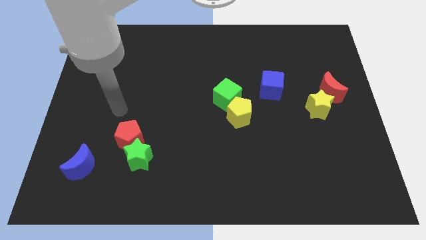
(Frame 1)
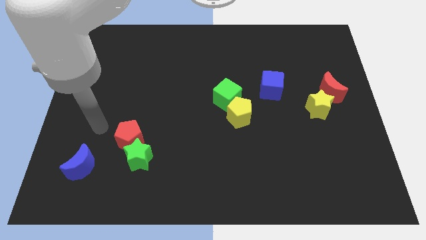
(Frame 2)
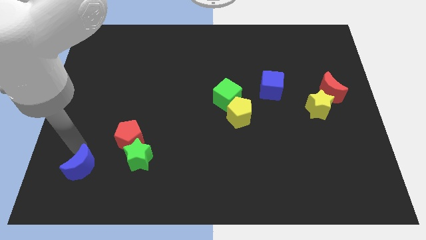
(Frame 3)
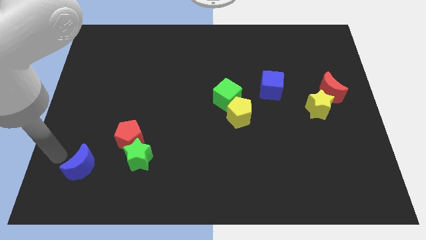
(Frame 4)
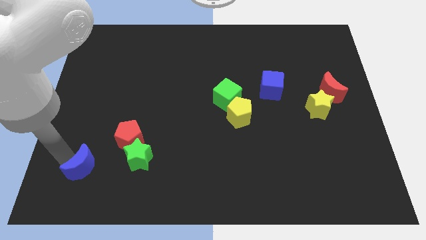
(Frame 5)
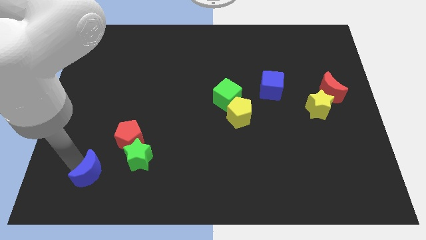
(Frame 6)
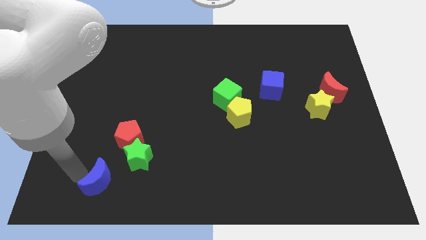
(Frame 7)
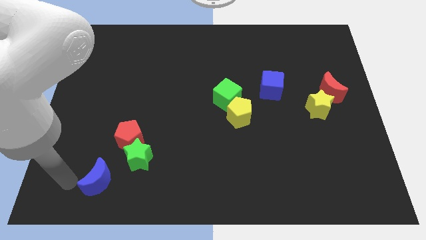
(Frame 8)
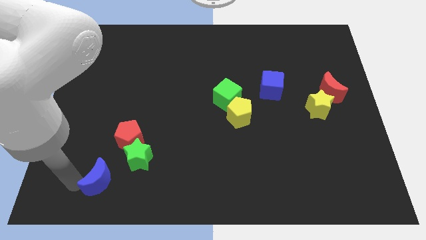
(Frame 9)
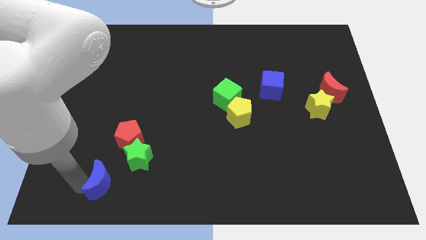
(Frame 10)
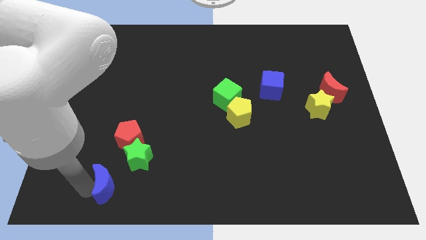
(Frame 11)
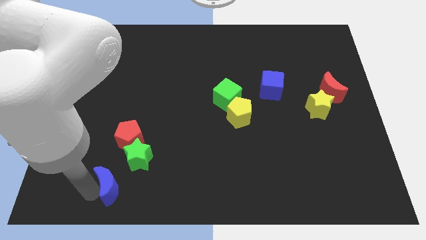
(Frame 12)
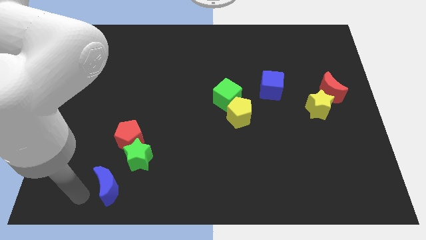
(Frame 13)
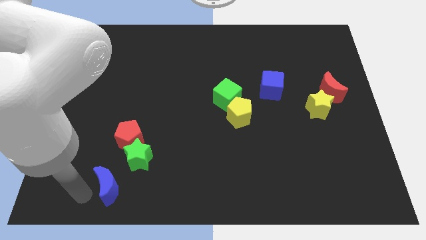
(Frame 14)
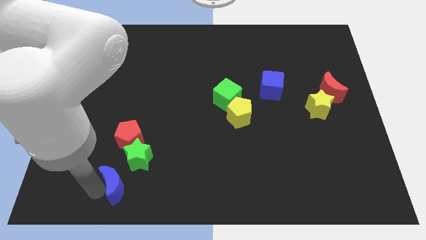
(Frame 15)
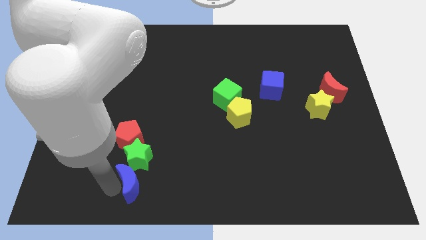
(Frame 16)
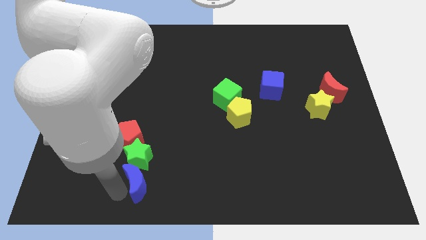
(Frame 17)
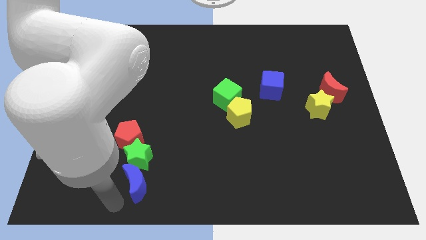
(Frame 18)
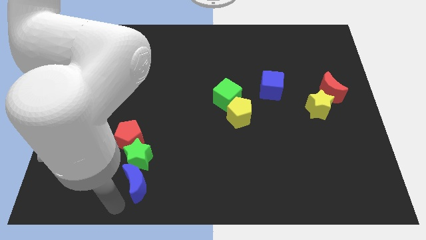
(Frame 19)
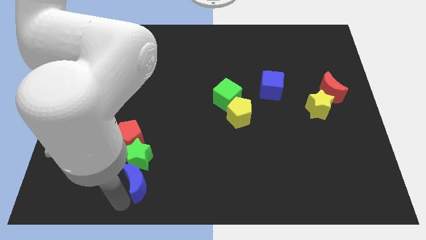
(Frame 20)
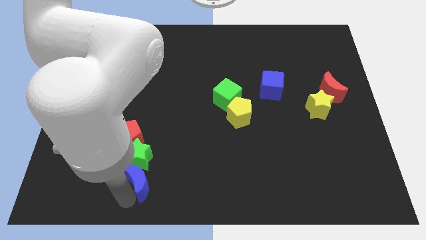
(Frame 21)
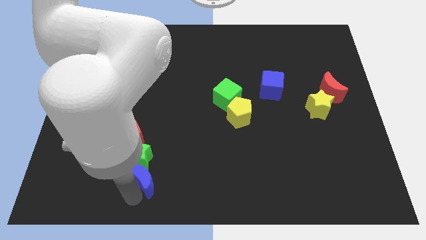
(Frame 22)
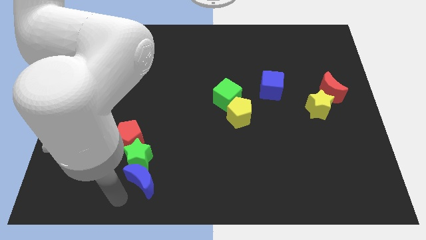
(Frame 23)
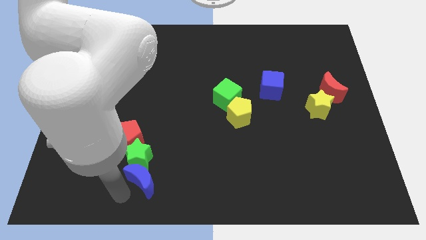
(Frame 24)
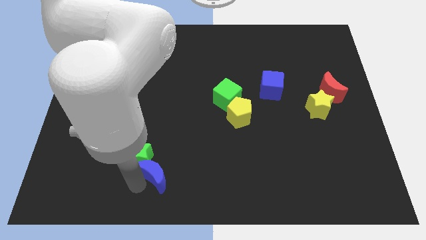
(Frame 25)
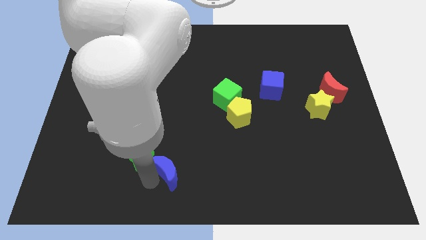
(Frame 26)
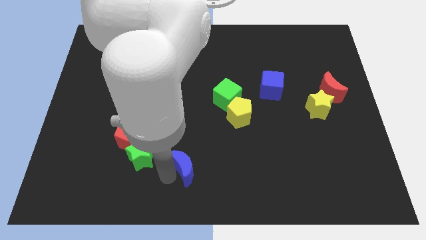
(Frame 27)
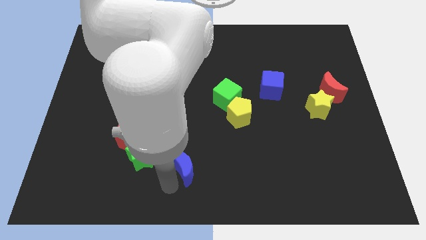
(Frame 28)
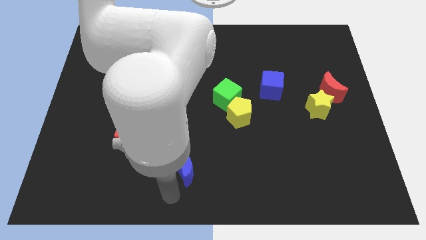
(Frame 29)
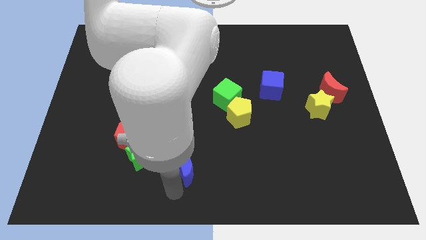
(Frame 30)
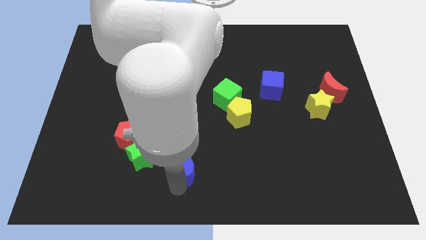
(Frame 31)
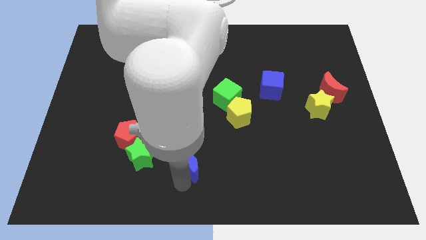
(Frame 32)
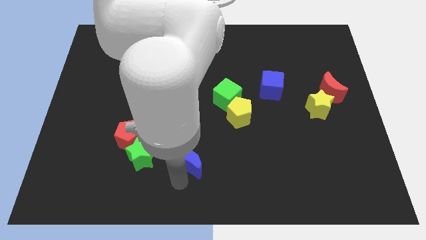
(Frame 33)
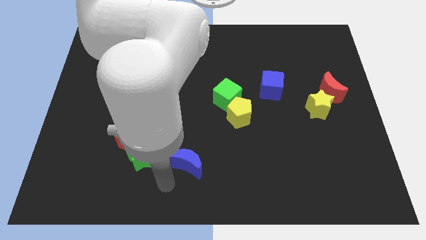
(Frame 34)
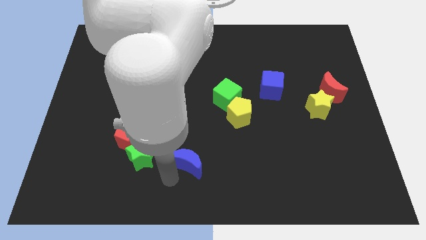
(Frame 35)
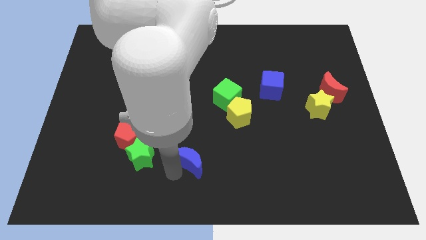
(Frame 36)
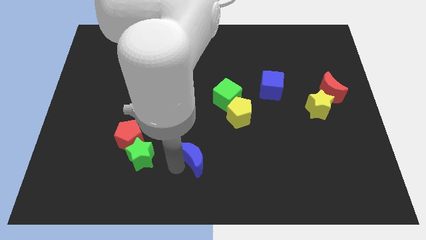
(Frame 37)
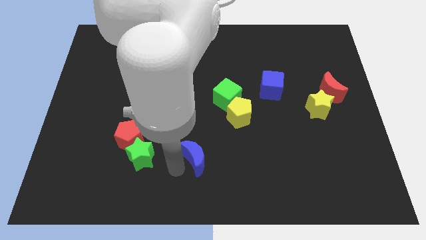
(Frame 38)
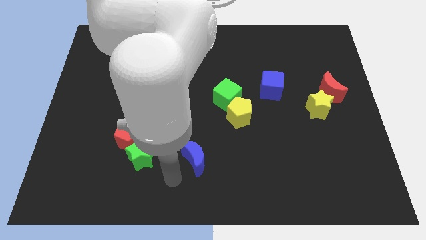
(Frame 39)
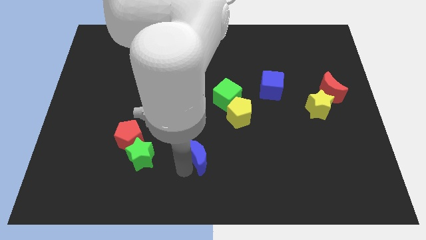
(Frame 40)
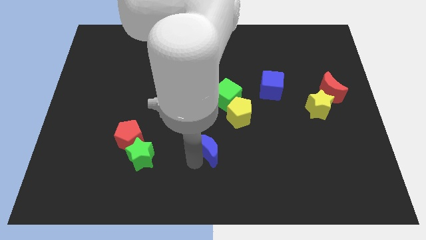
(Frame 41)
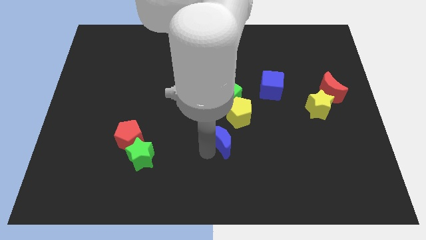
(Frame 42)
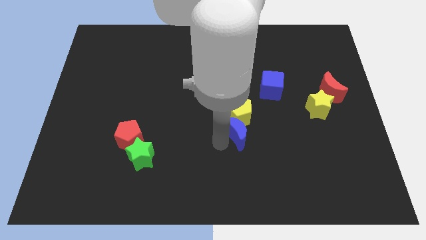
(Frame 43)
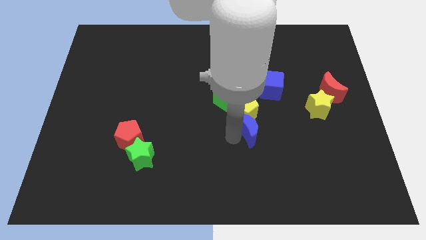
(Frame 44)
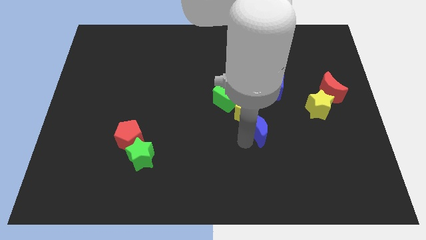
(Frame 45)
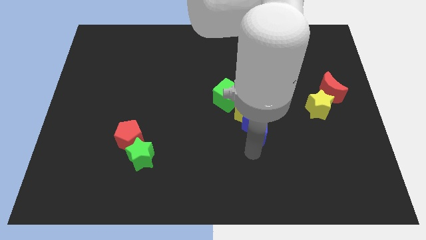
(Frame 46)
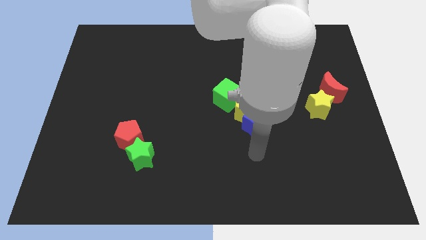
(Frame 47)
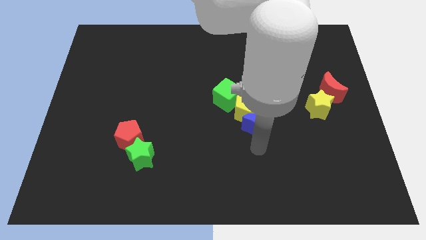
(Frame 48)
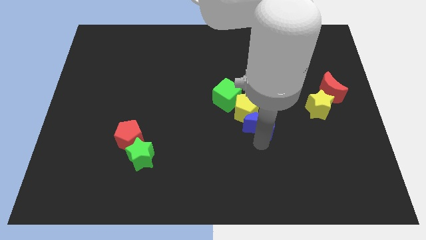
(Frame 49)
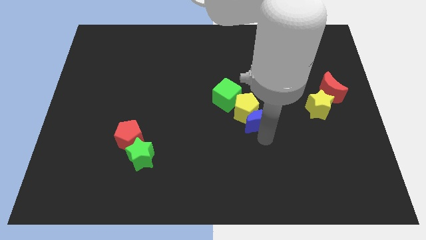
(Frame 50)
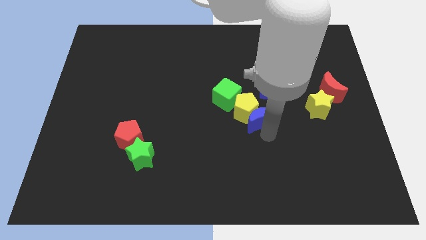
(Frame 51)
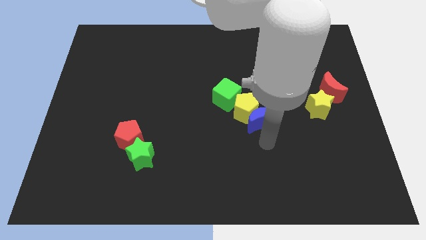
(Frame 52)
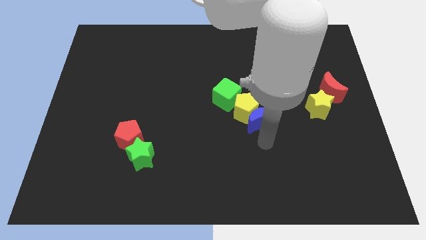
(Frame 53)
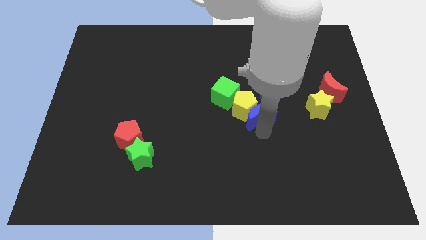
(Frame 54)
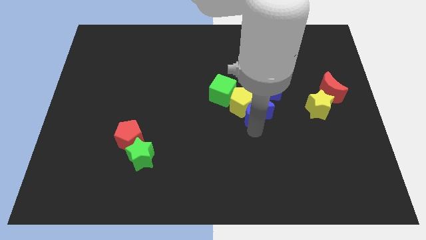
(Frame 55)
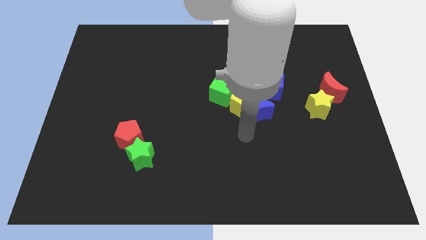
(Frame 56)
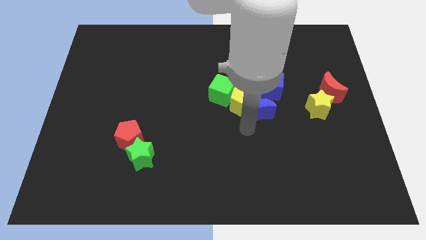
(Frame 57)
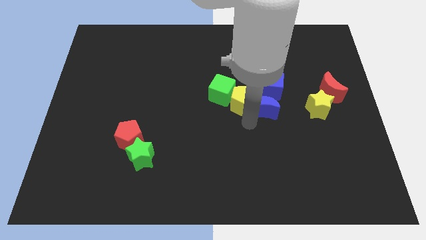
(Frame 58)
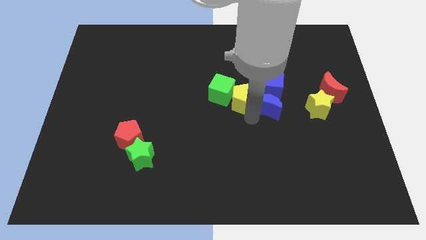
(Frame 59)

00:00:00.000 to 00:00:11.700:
push the blue moon towards the blue cube

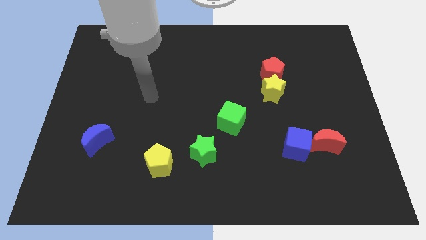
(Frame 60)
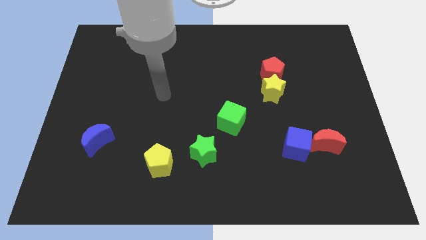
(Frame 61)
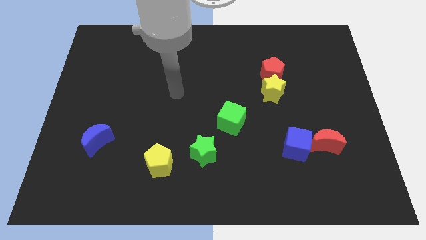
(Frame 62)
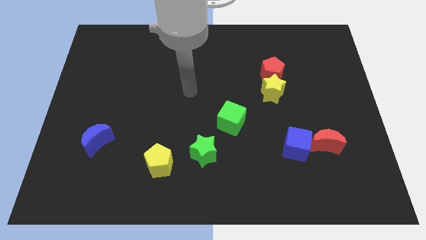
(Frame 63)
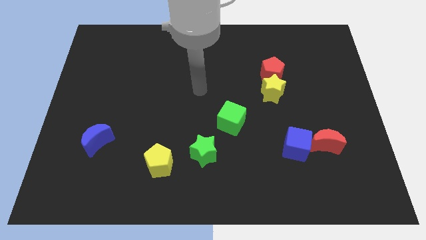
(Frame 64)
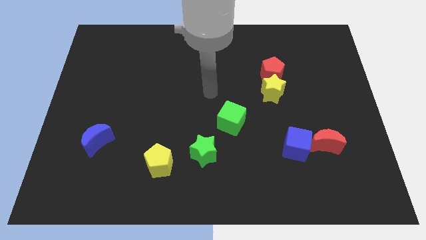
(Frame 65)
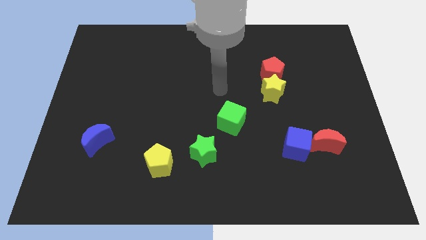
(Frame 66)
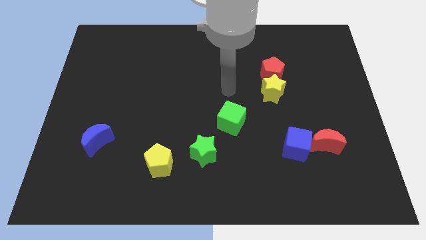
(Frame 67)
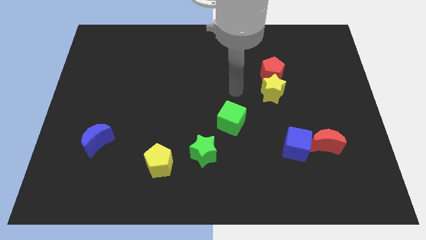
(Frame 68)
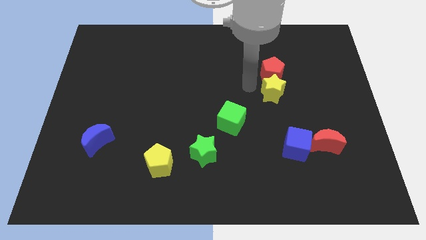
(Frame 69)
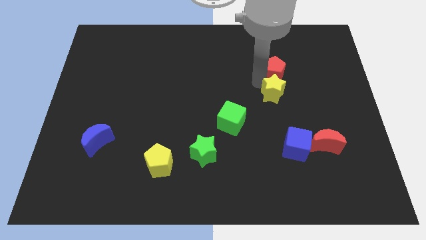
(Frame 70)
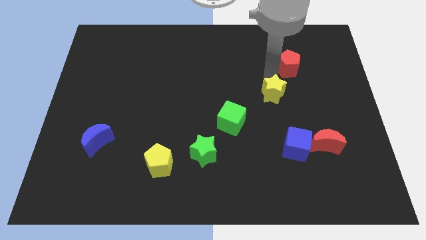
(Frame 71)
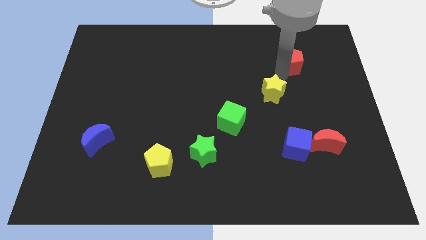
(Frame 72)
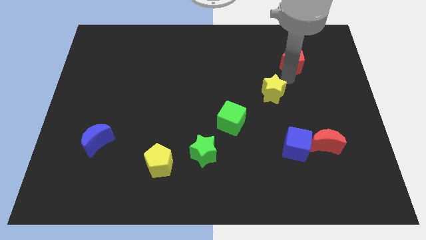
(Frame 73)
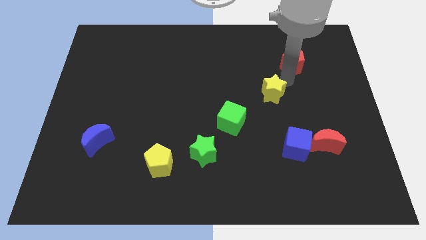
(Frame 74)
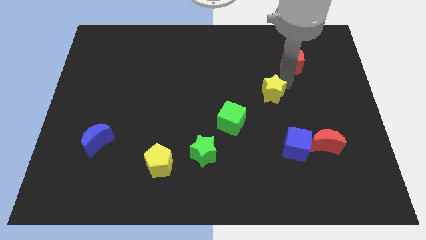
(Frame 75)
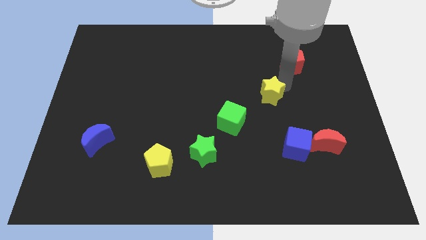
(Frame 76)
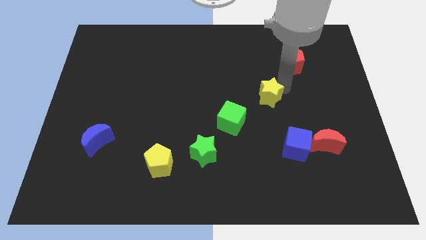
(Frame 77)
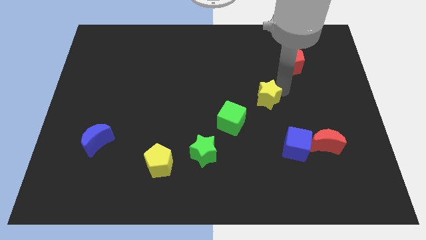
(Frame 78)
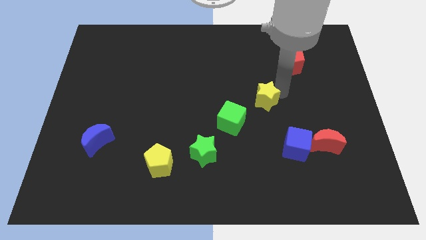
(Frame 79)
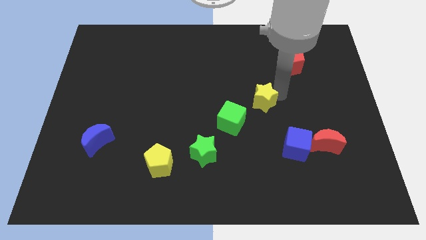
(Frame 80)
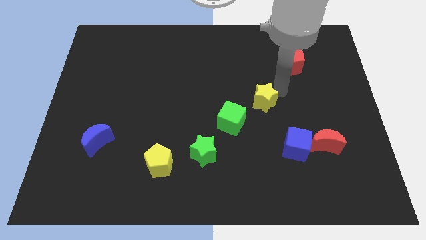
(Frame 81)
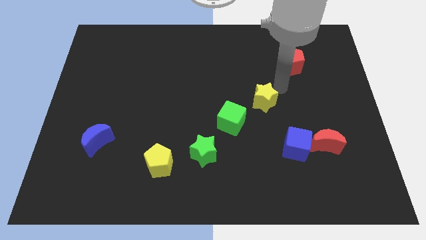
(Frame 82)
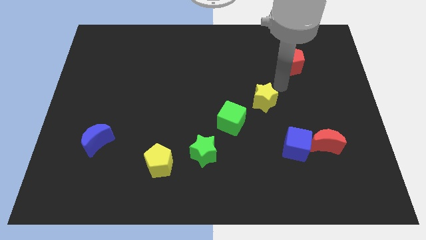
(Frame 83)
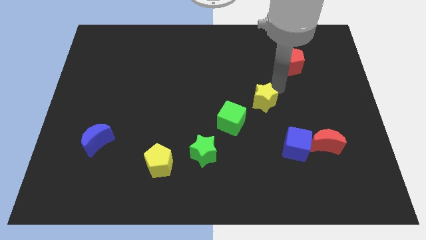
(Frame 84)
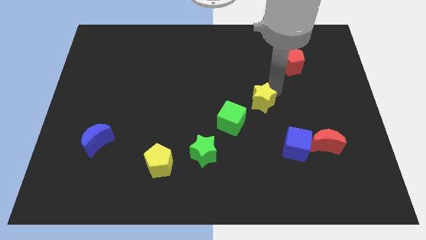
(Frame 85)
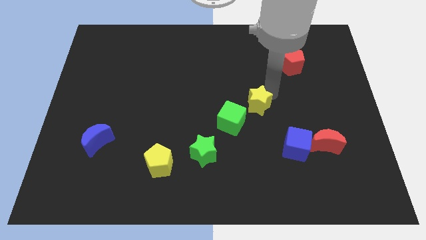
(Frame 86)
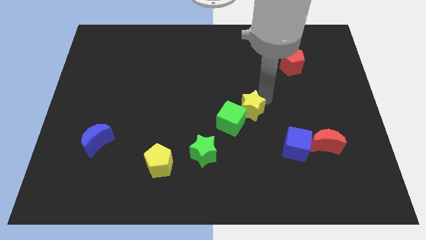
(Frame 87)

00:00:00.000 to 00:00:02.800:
slide the yellow star to the green cube
